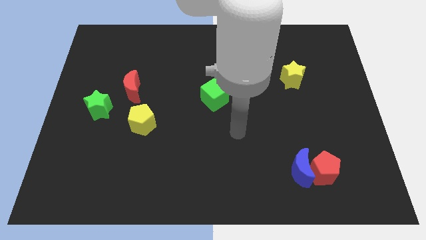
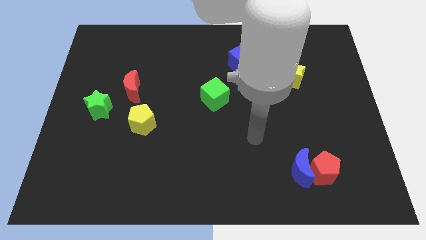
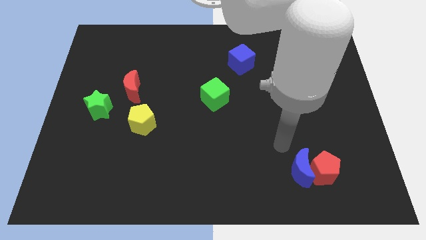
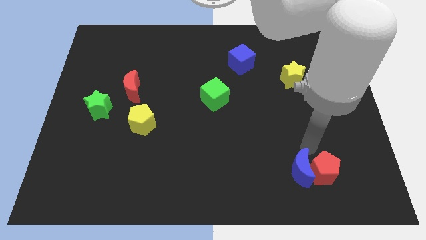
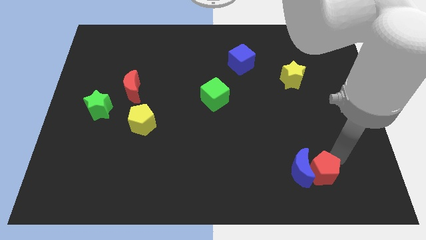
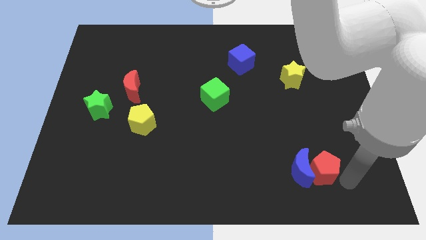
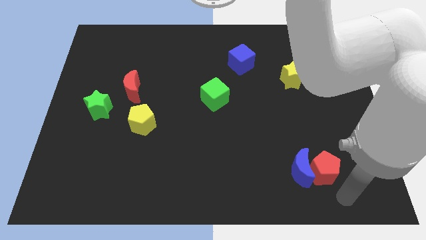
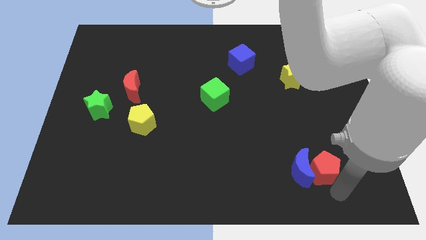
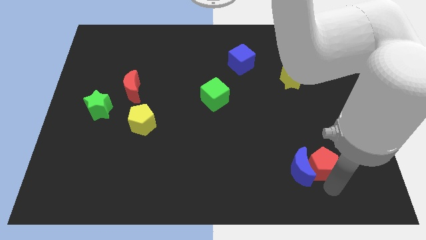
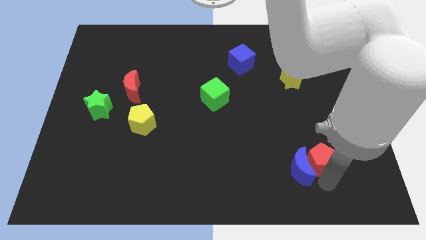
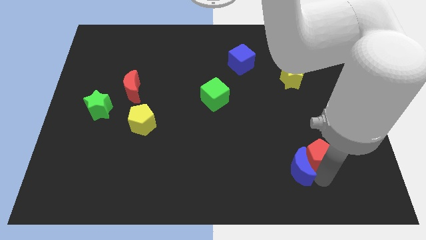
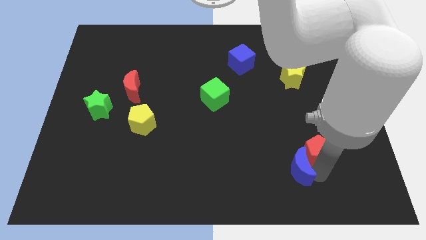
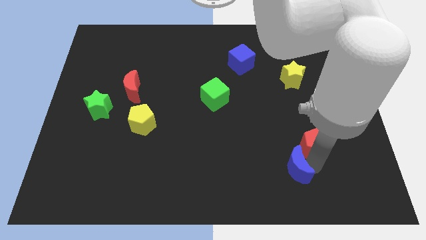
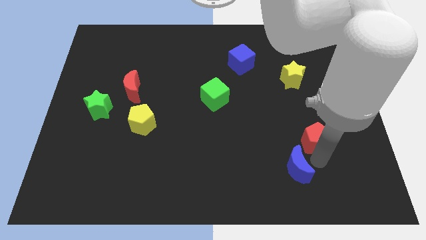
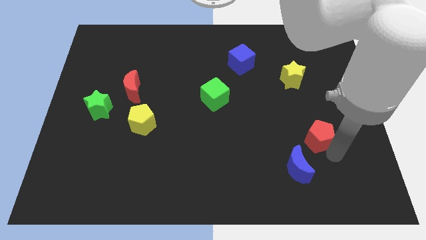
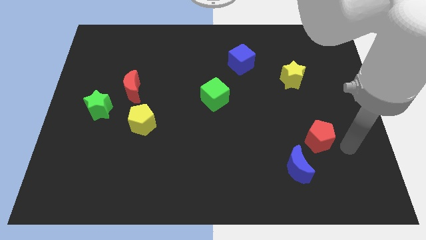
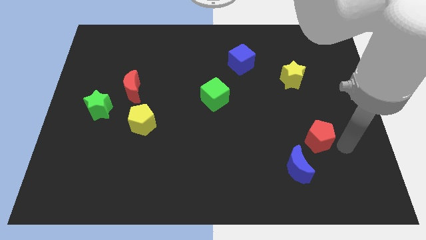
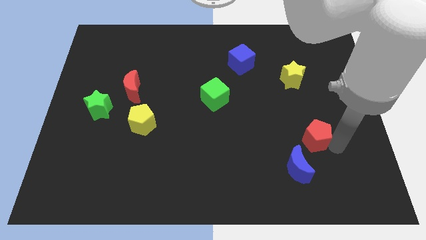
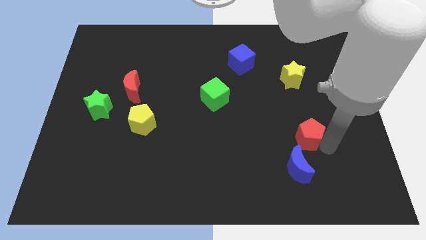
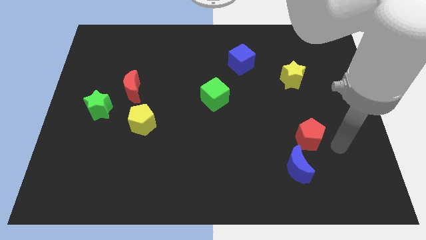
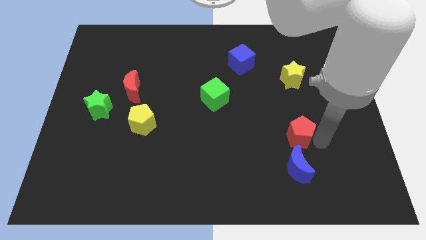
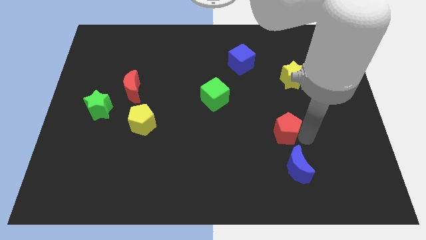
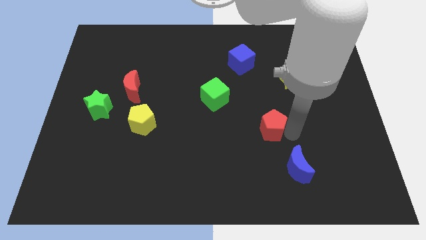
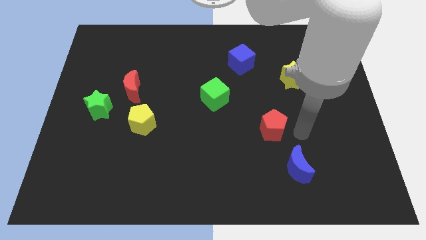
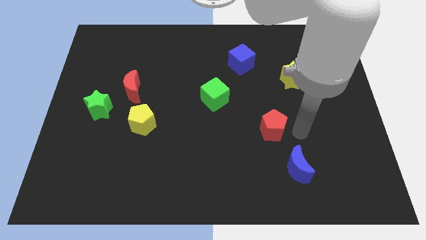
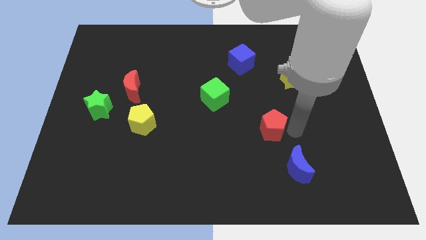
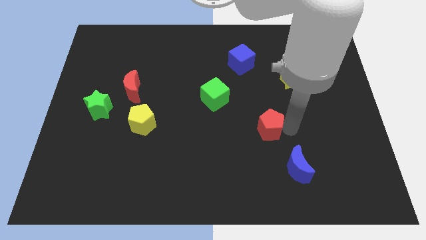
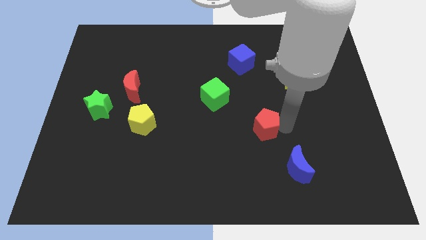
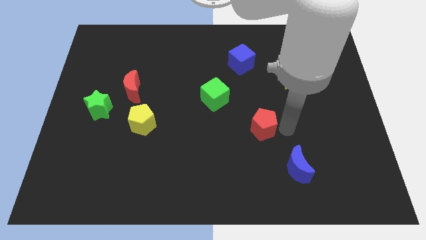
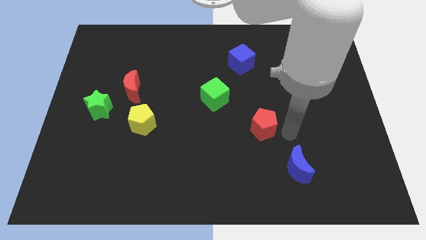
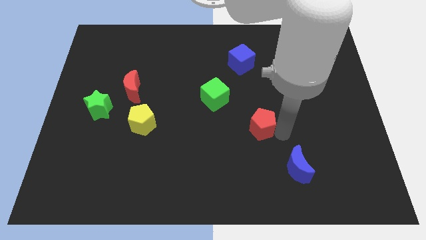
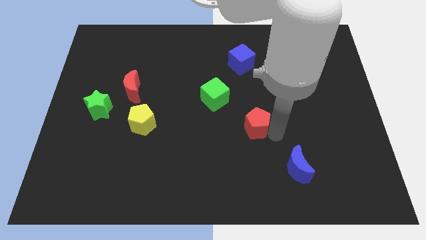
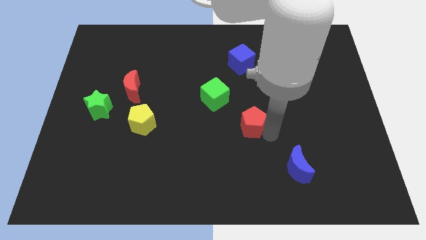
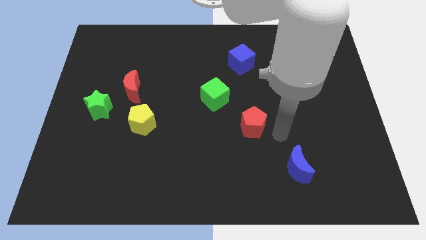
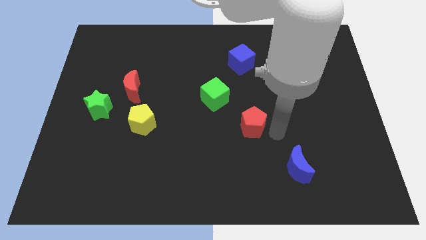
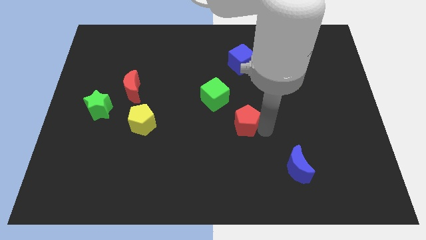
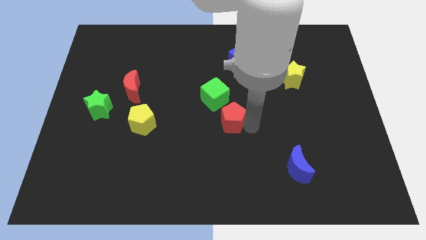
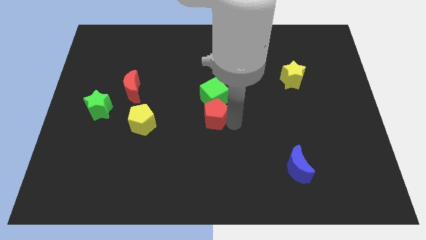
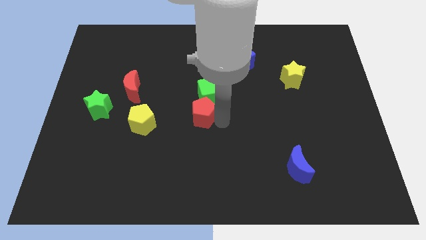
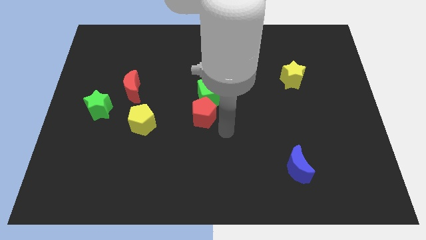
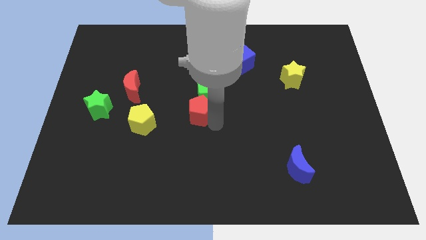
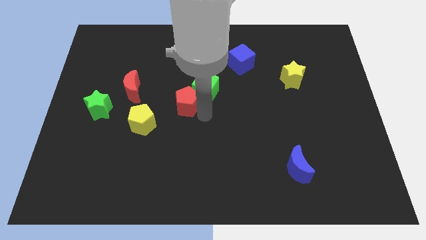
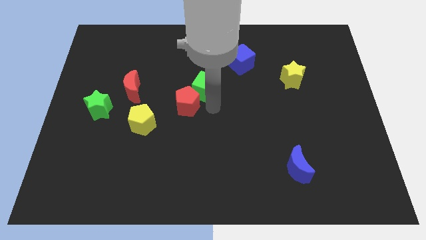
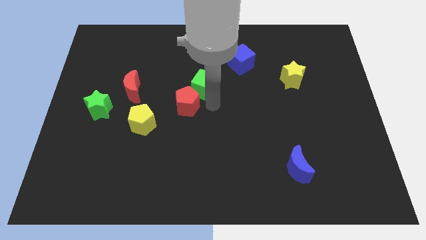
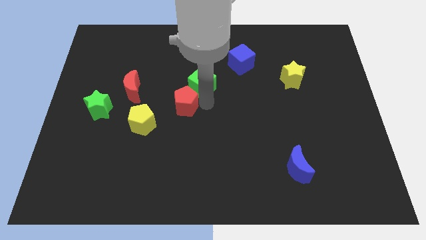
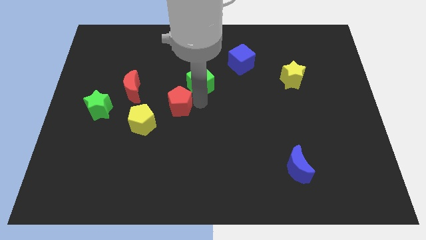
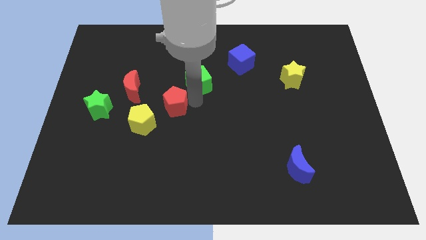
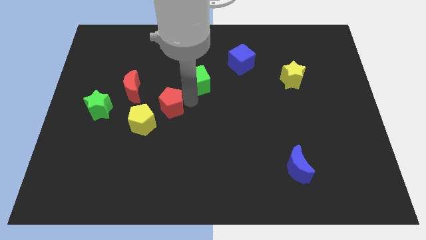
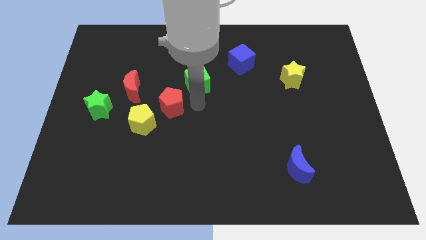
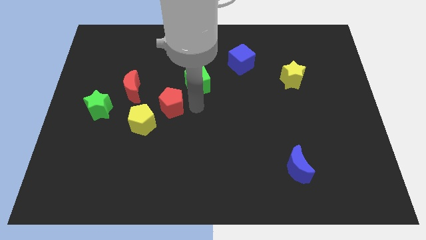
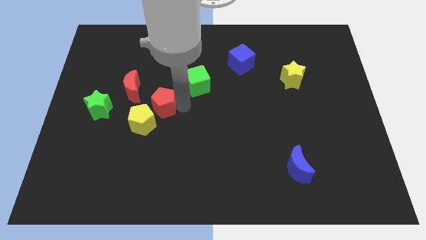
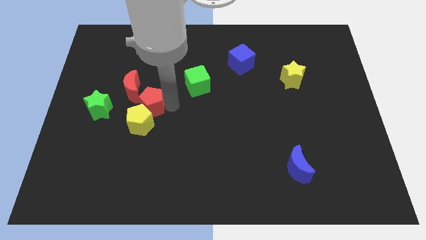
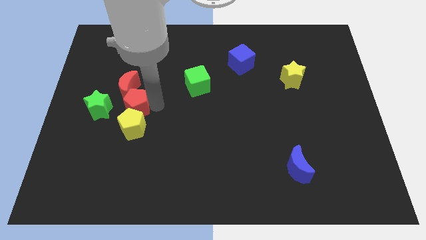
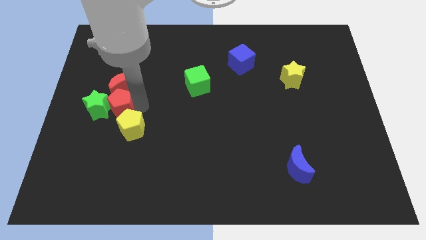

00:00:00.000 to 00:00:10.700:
move the red pentagon close to the green star

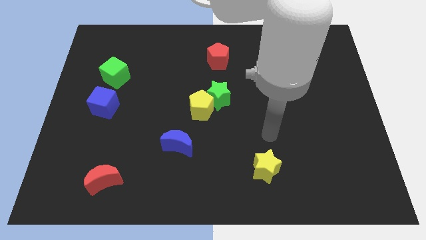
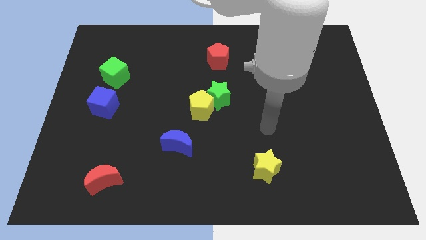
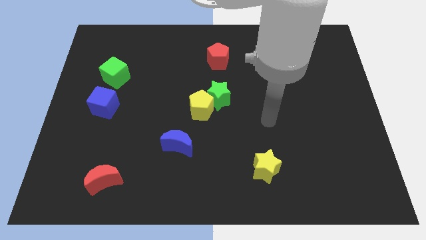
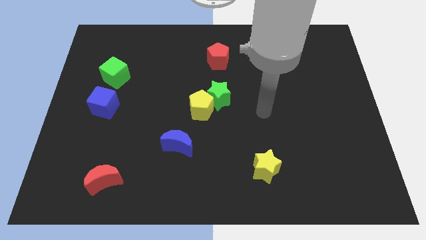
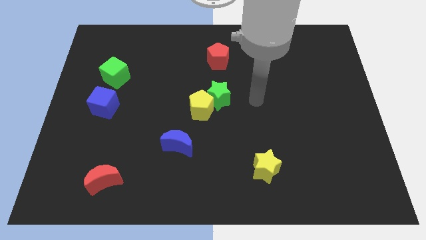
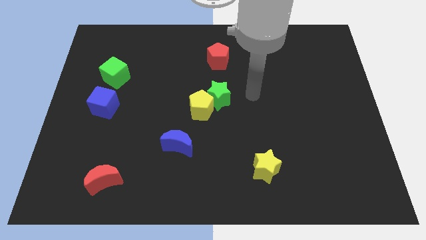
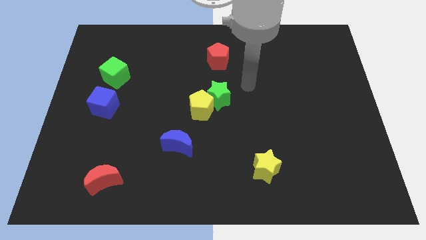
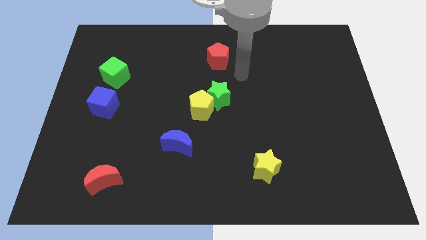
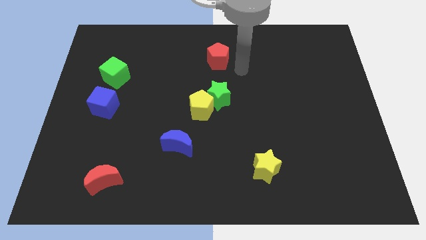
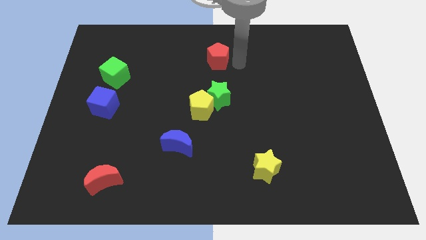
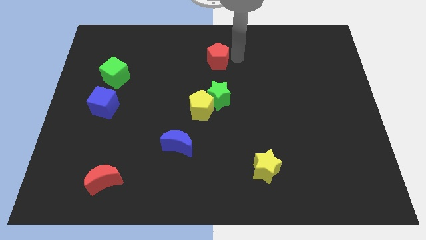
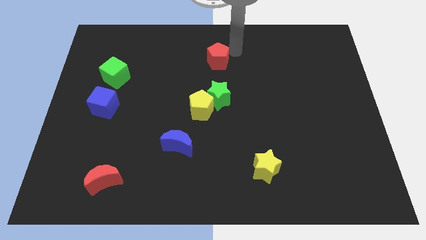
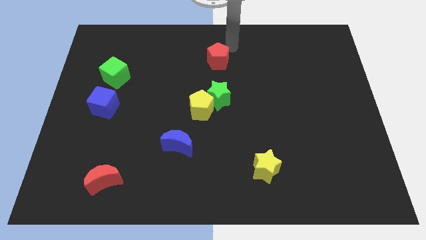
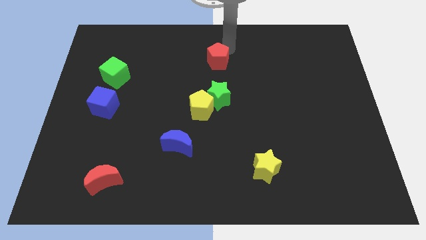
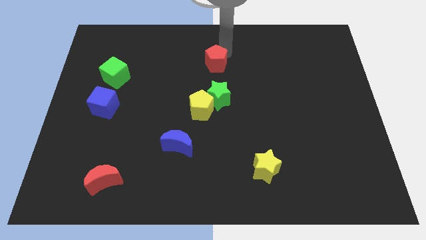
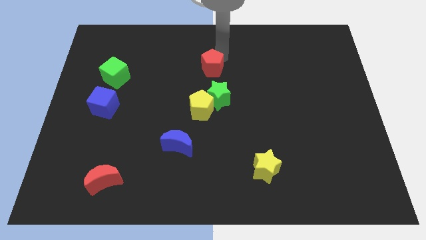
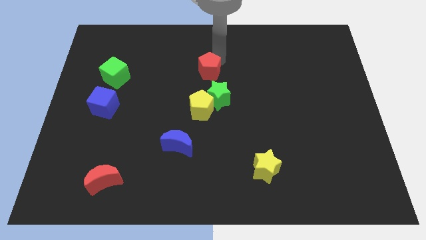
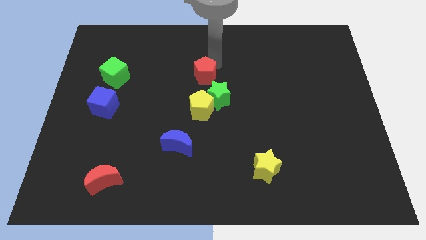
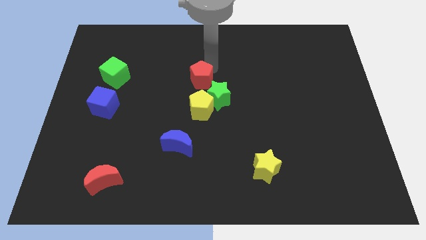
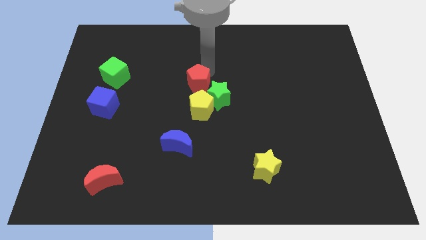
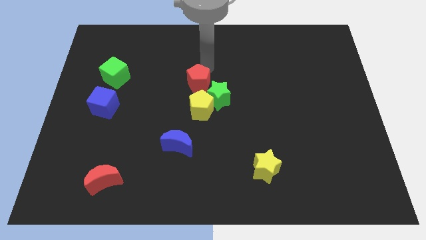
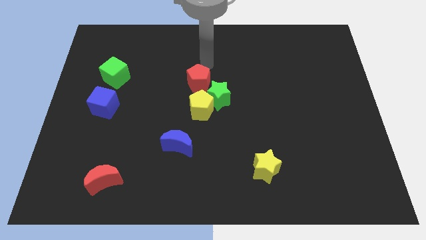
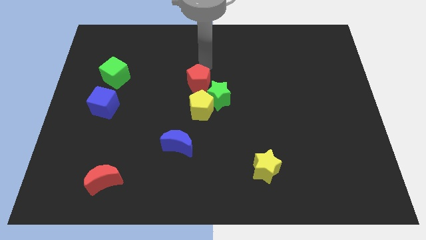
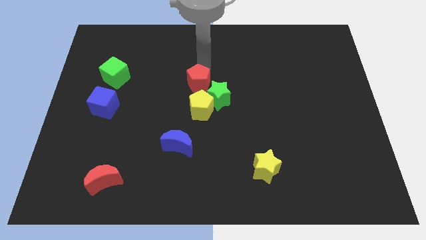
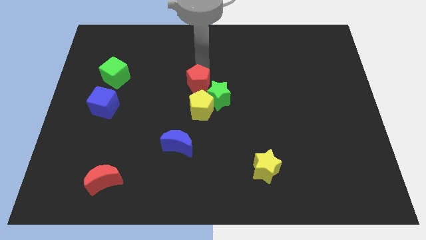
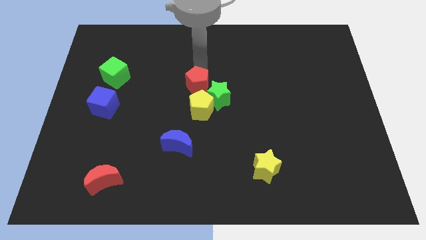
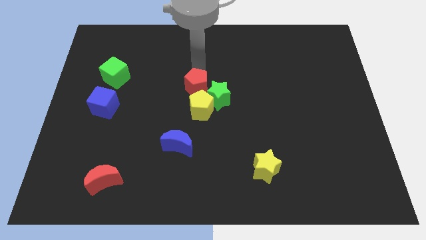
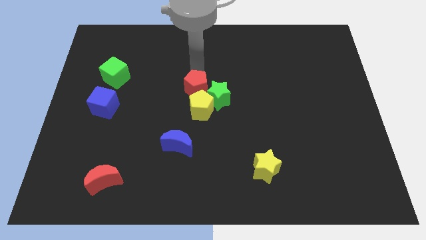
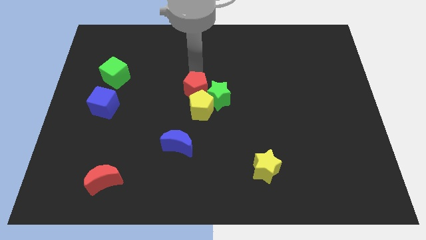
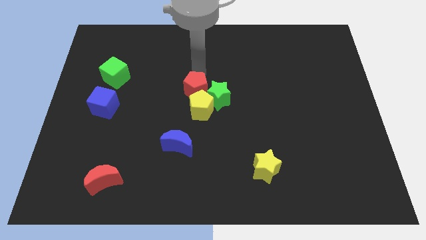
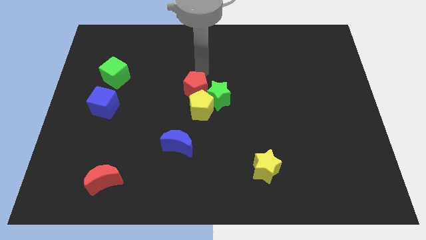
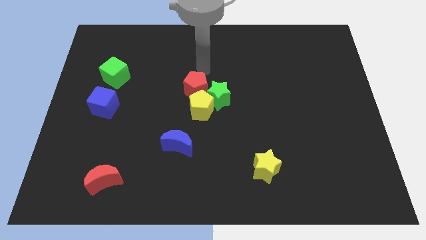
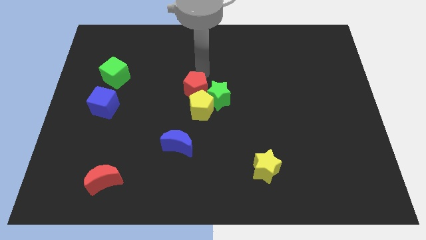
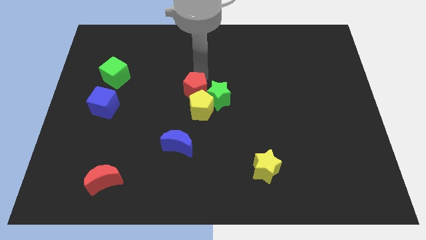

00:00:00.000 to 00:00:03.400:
push the red pentagon close to the yellow pentagon
